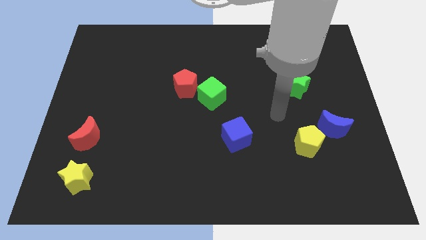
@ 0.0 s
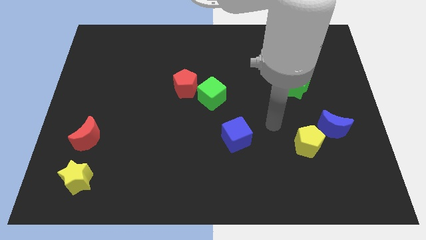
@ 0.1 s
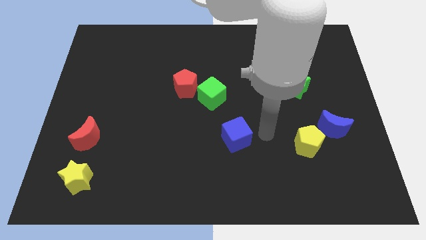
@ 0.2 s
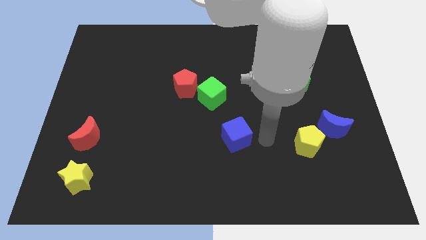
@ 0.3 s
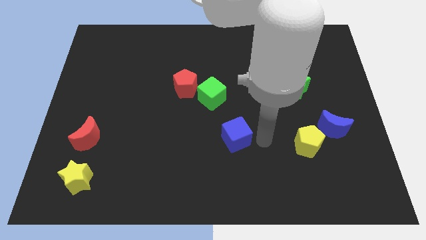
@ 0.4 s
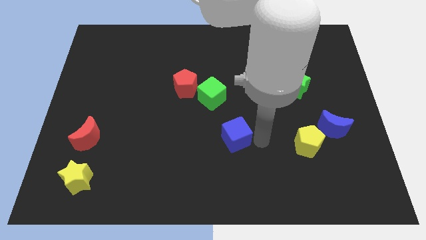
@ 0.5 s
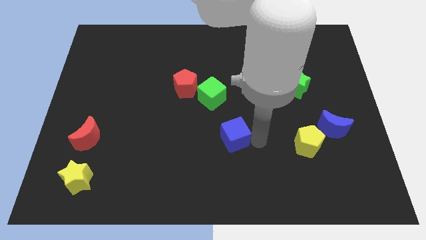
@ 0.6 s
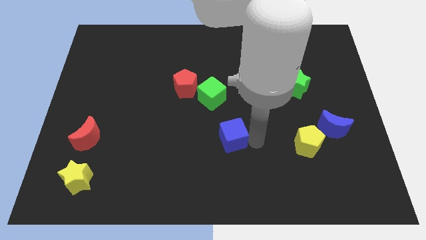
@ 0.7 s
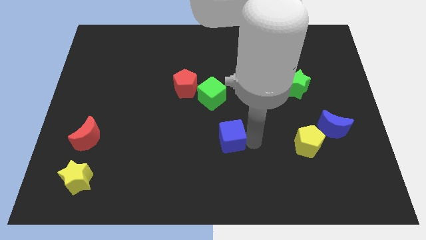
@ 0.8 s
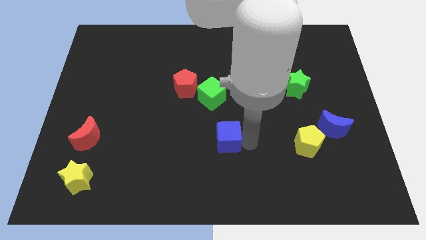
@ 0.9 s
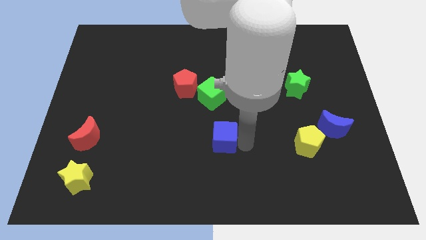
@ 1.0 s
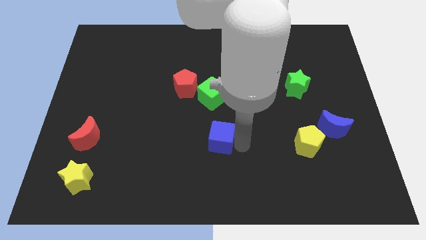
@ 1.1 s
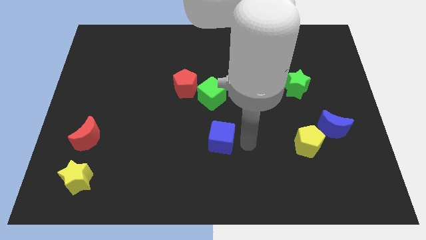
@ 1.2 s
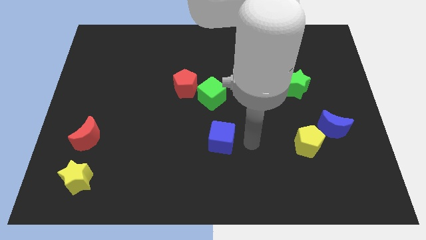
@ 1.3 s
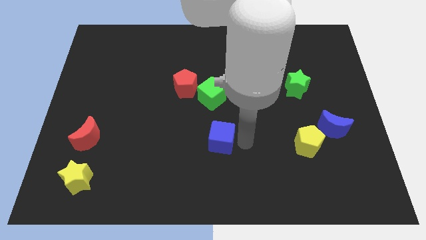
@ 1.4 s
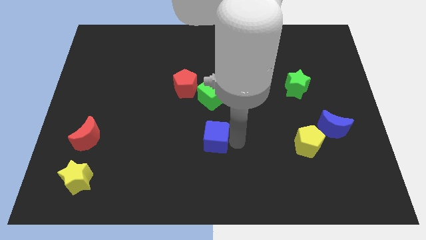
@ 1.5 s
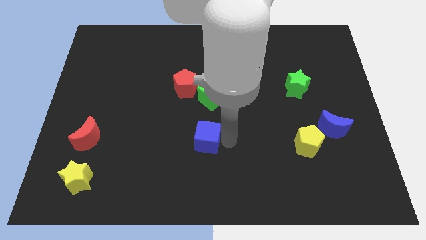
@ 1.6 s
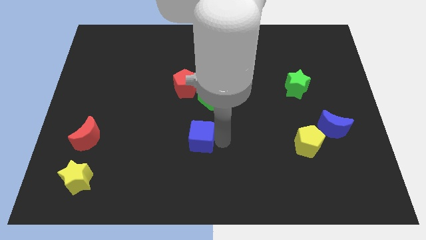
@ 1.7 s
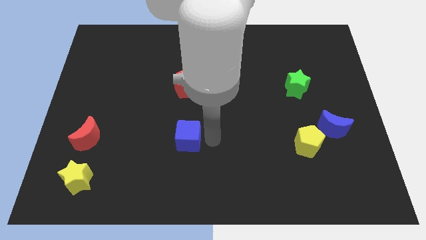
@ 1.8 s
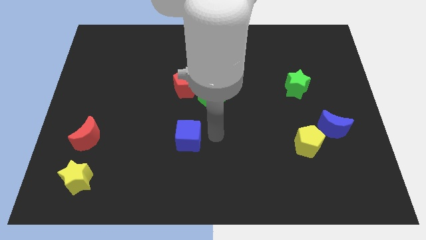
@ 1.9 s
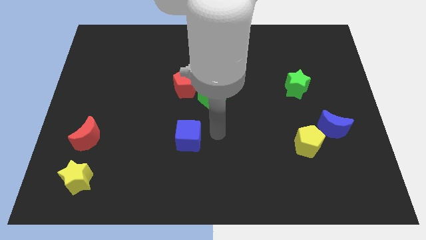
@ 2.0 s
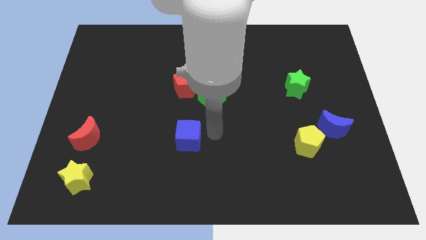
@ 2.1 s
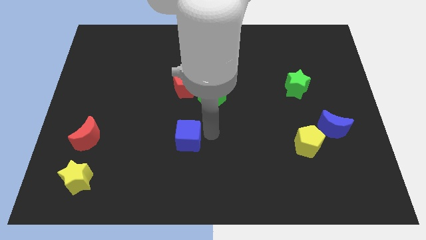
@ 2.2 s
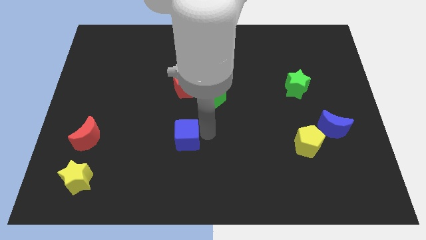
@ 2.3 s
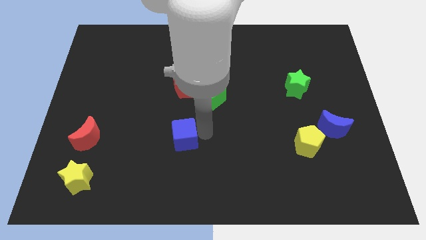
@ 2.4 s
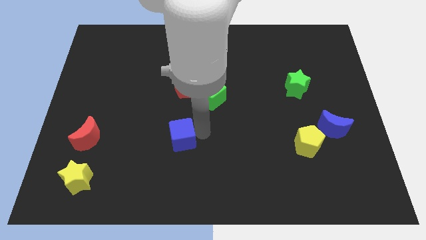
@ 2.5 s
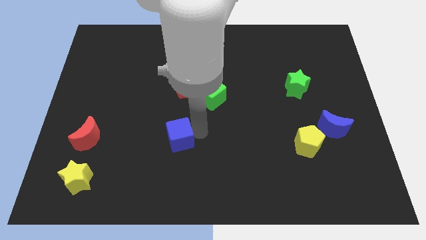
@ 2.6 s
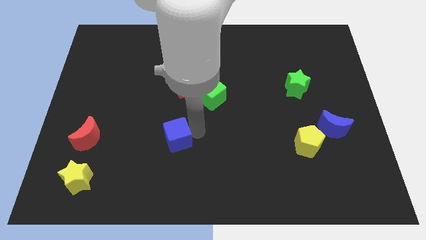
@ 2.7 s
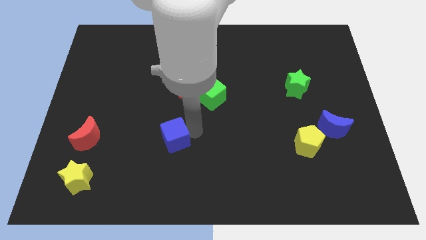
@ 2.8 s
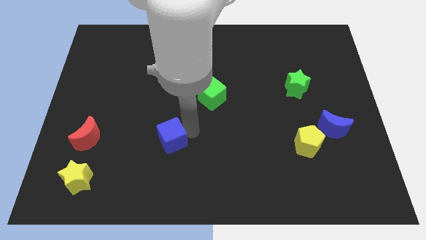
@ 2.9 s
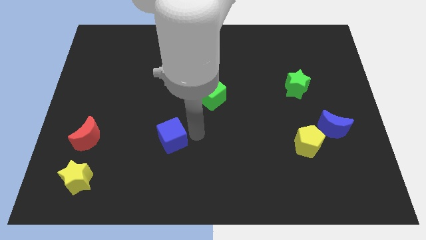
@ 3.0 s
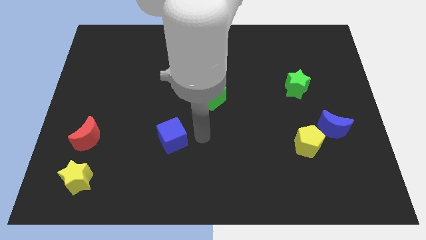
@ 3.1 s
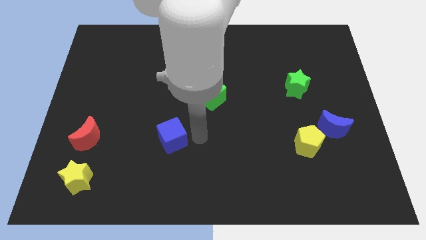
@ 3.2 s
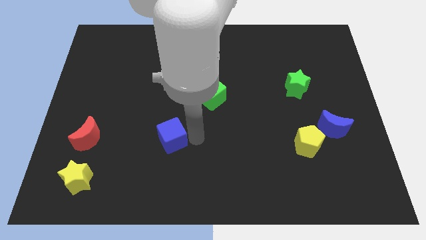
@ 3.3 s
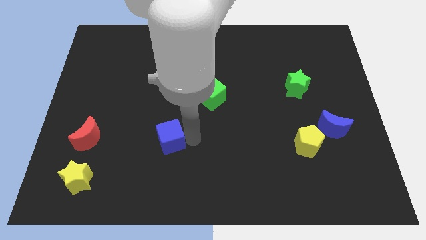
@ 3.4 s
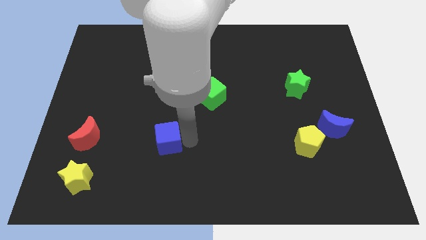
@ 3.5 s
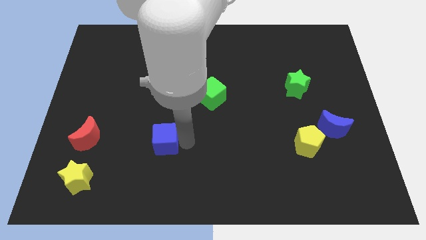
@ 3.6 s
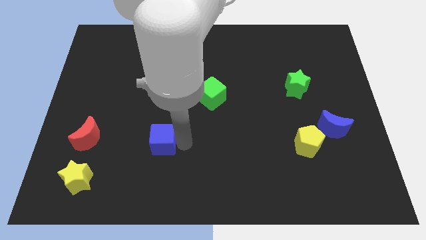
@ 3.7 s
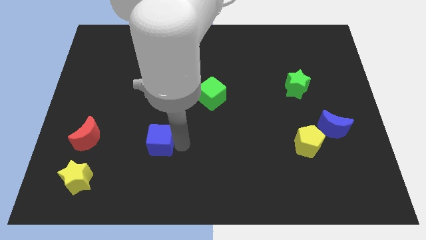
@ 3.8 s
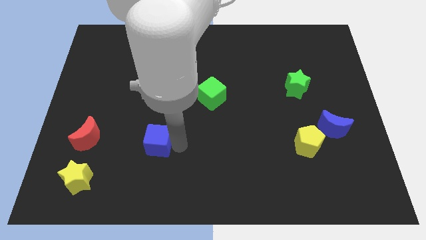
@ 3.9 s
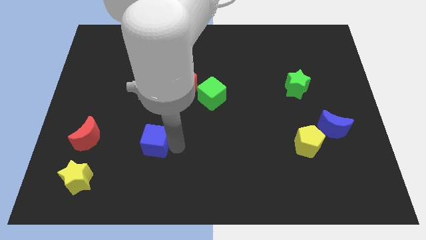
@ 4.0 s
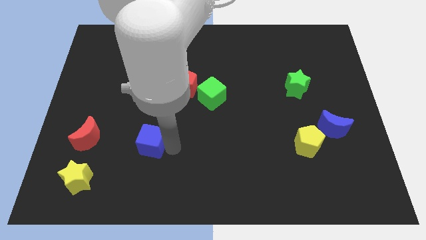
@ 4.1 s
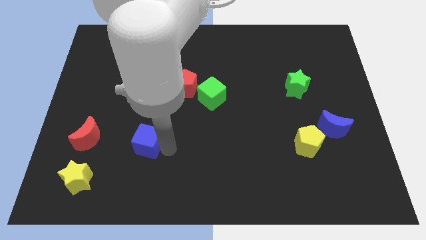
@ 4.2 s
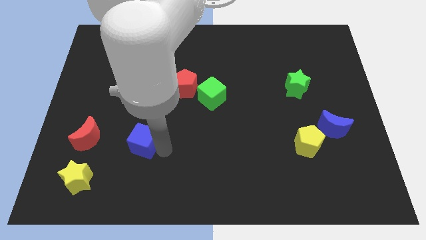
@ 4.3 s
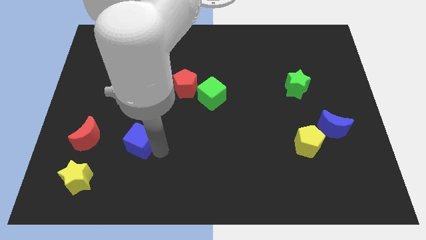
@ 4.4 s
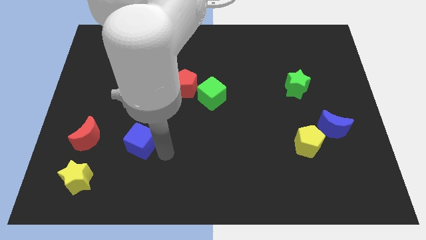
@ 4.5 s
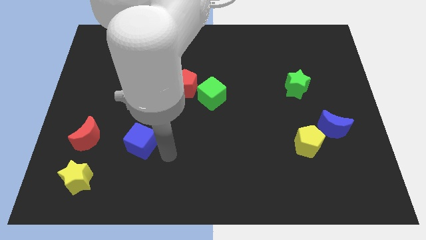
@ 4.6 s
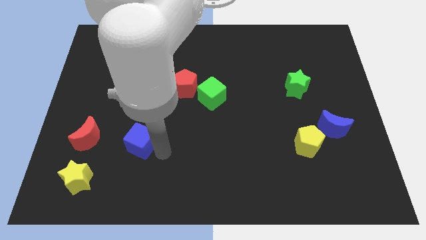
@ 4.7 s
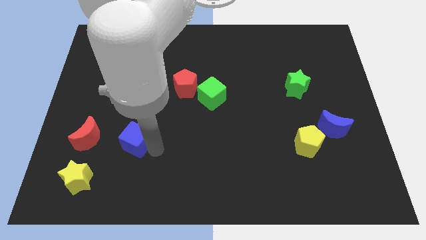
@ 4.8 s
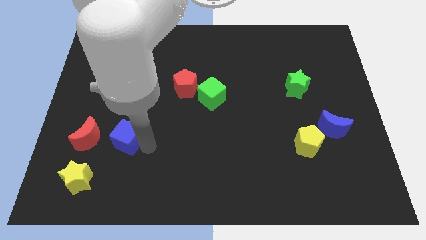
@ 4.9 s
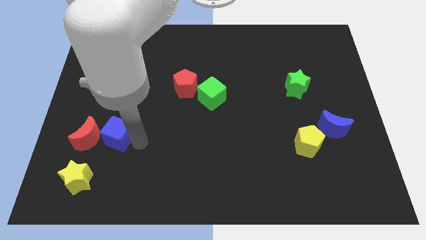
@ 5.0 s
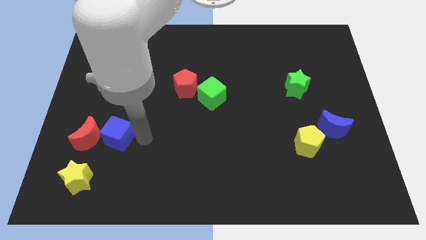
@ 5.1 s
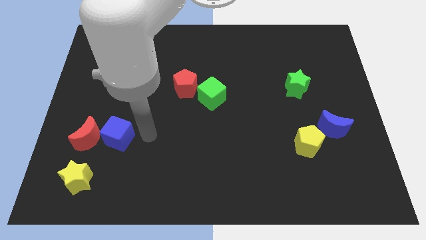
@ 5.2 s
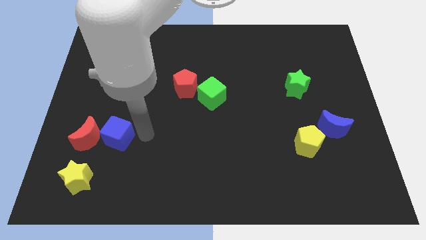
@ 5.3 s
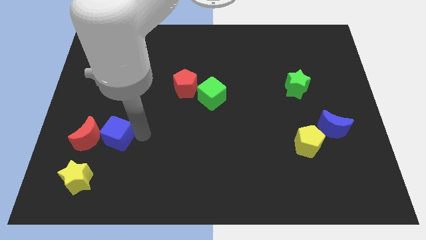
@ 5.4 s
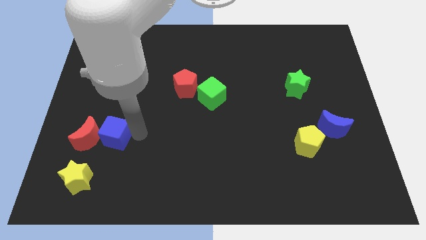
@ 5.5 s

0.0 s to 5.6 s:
slide the blue cube next to the red moon

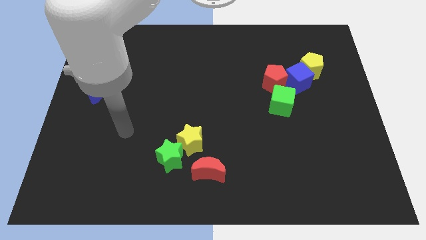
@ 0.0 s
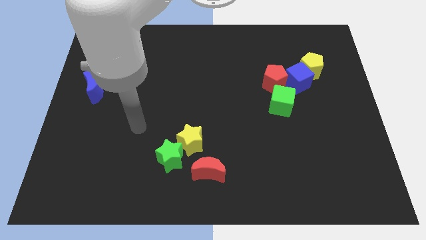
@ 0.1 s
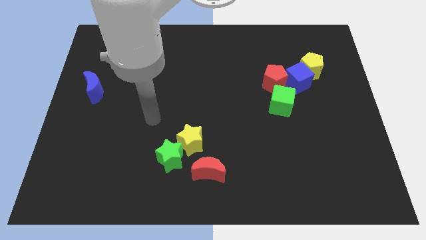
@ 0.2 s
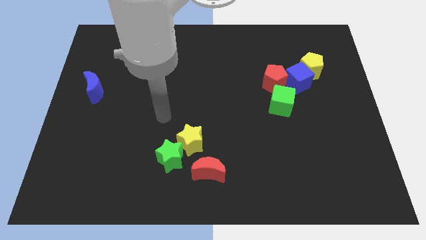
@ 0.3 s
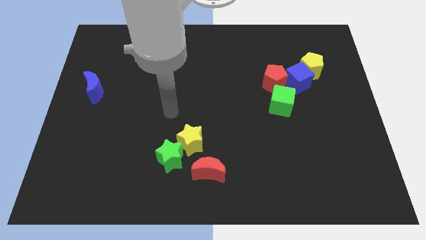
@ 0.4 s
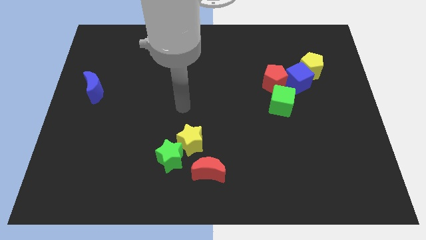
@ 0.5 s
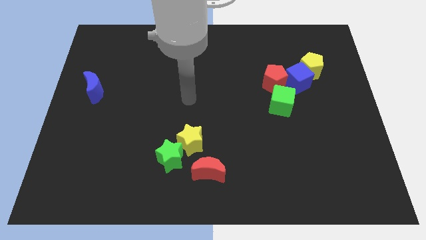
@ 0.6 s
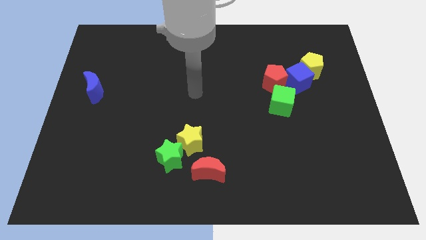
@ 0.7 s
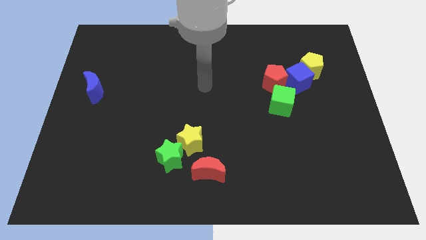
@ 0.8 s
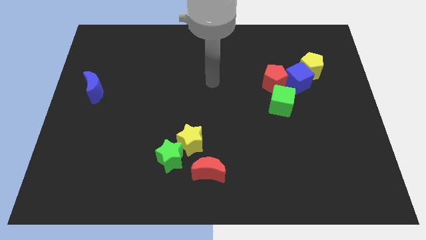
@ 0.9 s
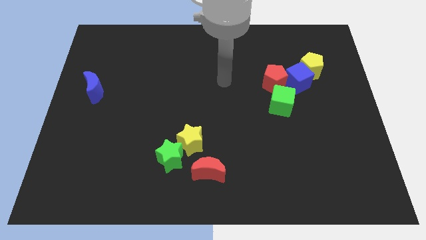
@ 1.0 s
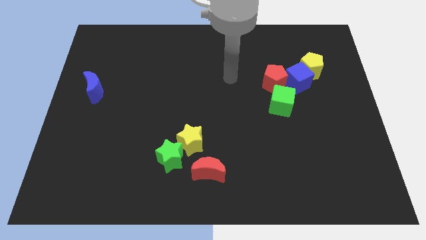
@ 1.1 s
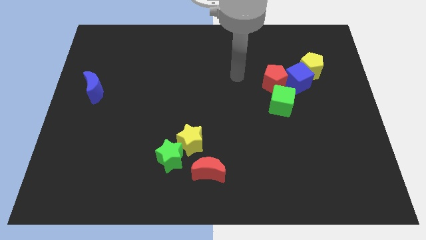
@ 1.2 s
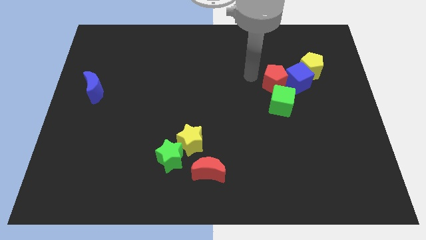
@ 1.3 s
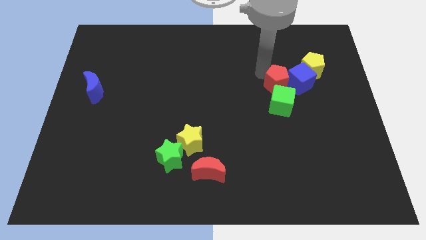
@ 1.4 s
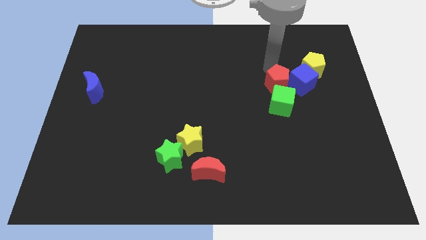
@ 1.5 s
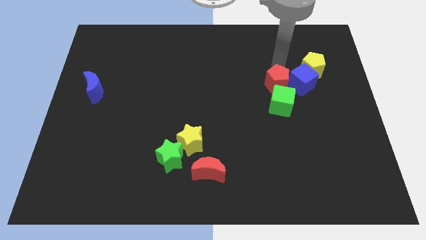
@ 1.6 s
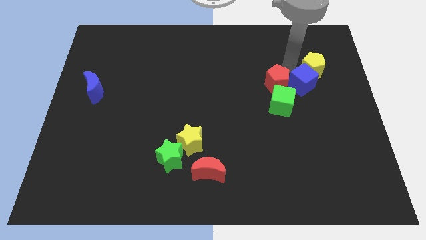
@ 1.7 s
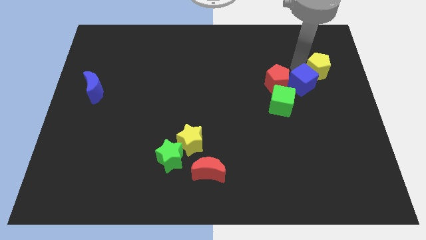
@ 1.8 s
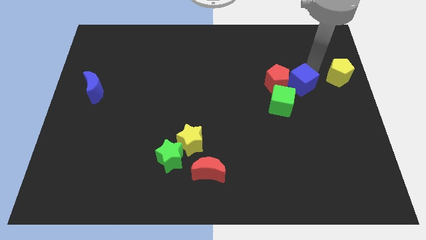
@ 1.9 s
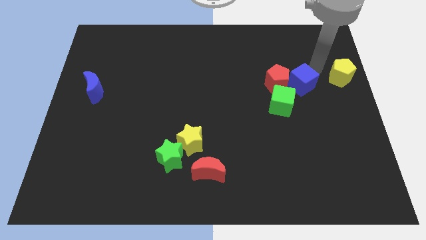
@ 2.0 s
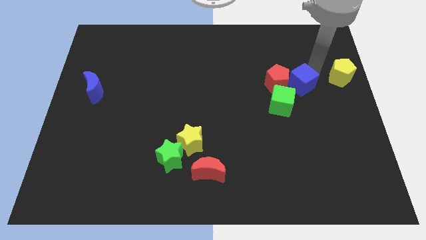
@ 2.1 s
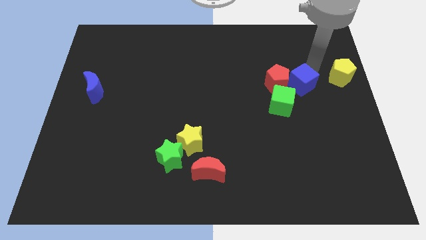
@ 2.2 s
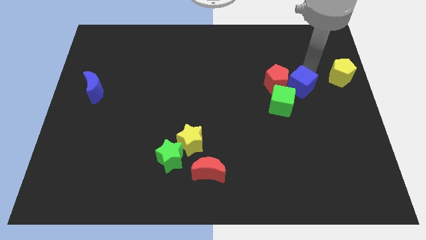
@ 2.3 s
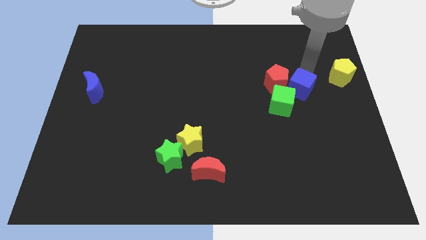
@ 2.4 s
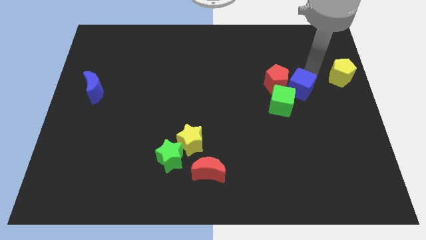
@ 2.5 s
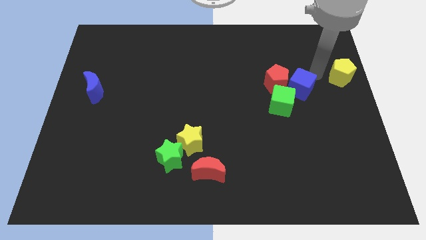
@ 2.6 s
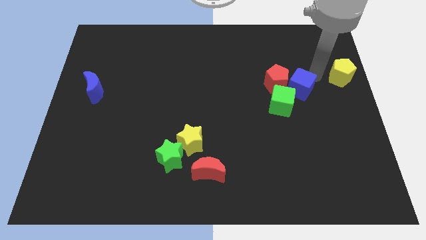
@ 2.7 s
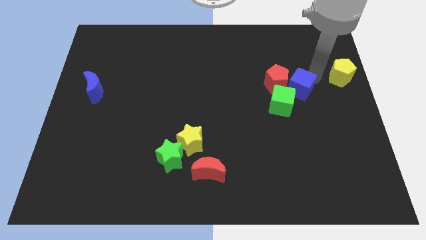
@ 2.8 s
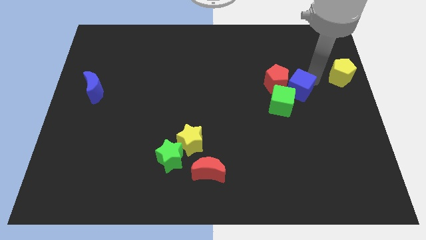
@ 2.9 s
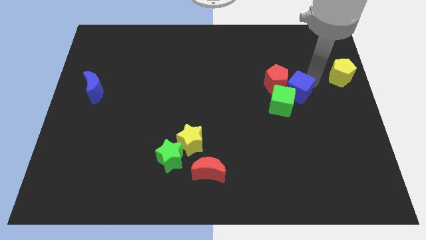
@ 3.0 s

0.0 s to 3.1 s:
put the blue cube close to the green cube
